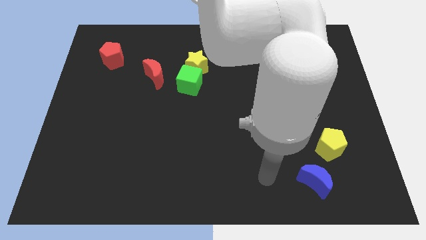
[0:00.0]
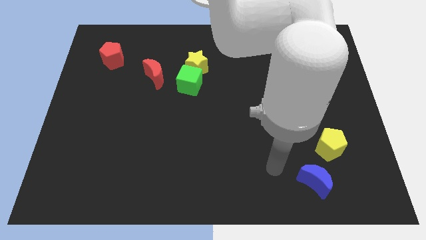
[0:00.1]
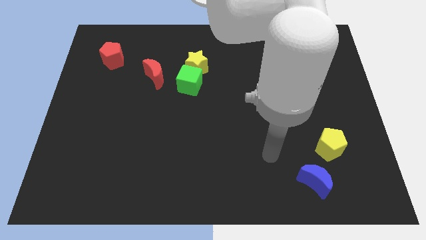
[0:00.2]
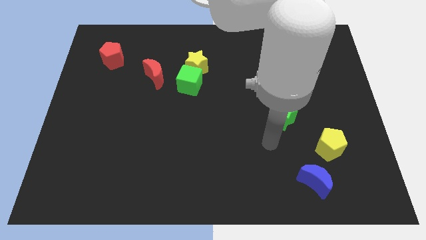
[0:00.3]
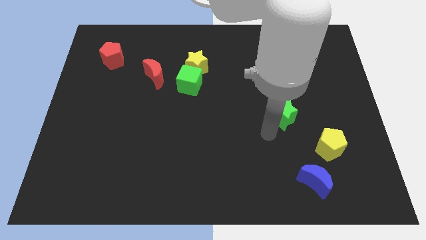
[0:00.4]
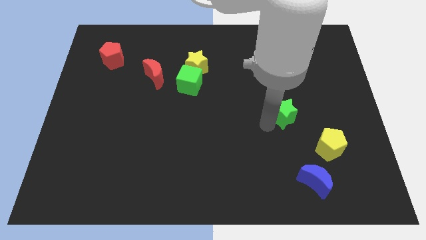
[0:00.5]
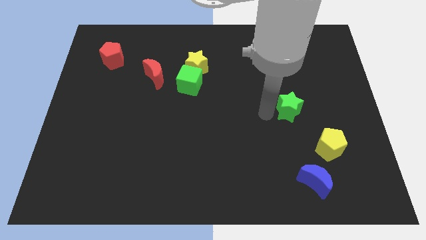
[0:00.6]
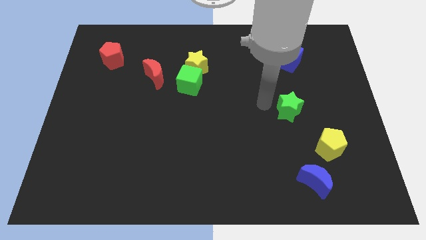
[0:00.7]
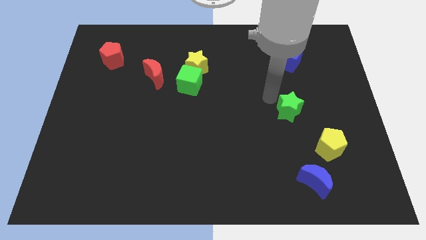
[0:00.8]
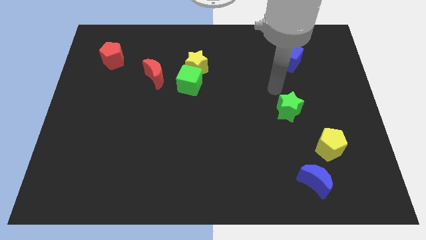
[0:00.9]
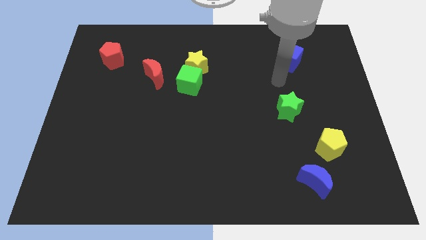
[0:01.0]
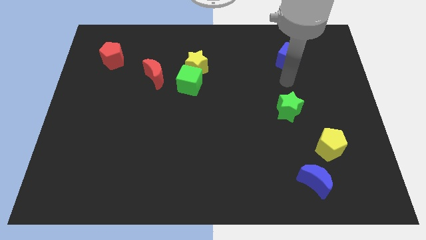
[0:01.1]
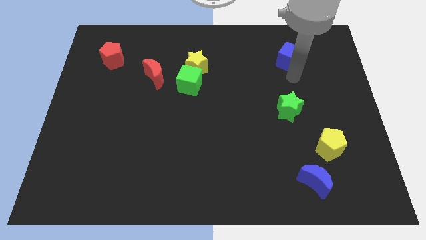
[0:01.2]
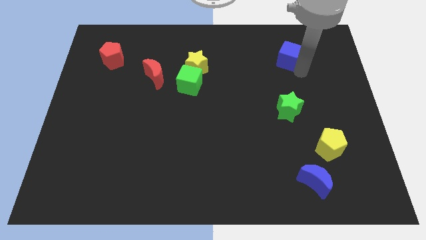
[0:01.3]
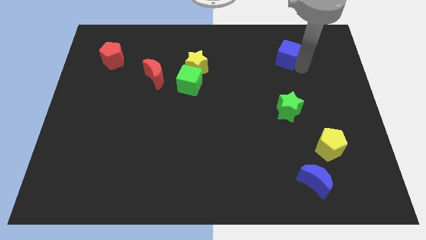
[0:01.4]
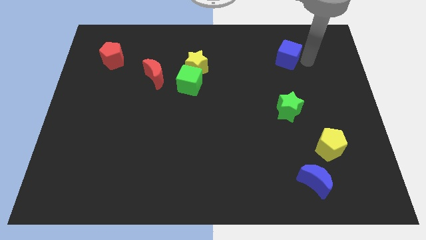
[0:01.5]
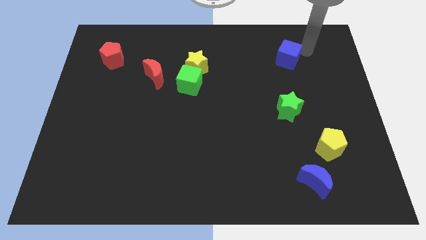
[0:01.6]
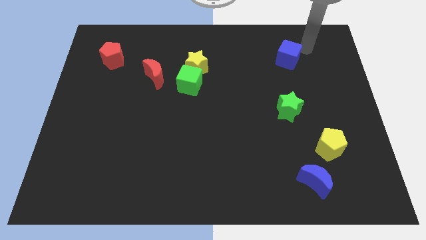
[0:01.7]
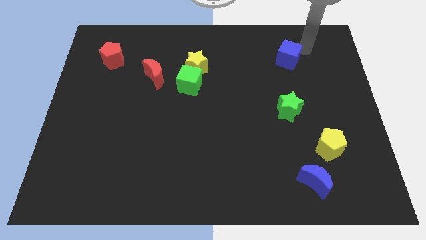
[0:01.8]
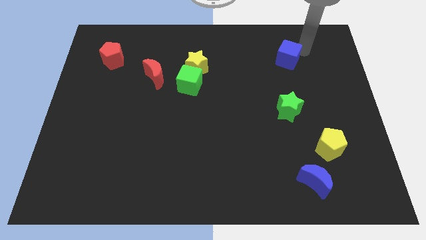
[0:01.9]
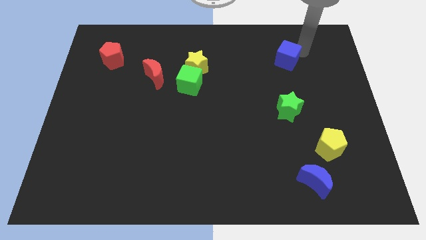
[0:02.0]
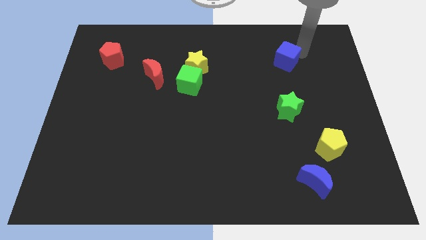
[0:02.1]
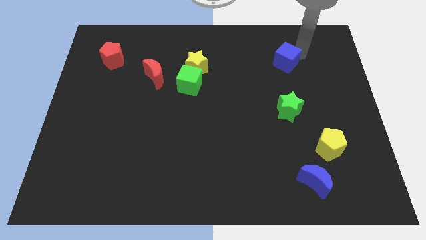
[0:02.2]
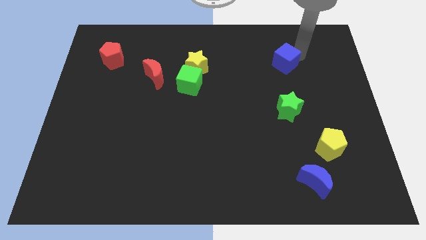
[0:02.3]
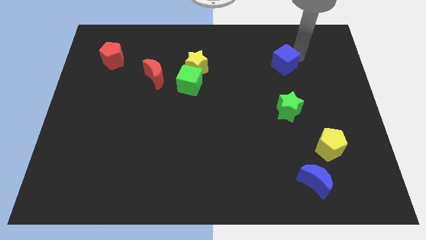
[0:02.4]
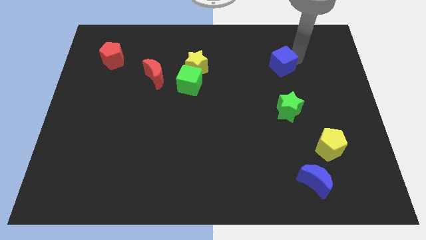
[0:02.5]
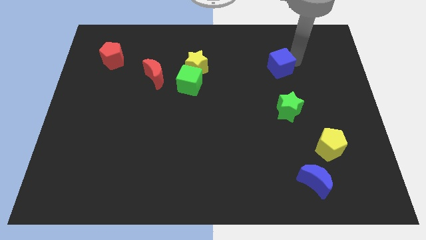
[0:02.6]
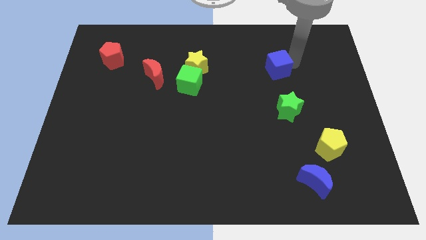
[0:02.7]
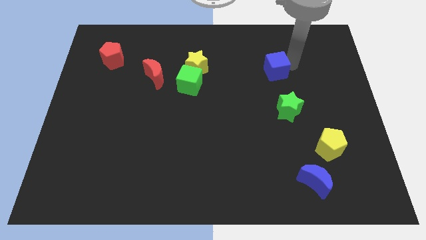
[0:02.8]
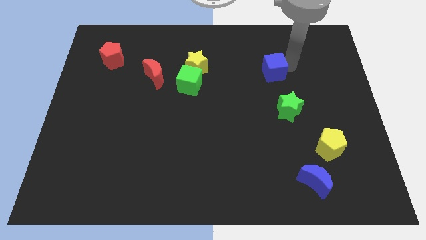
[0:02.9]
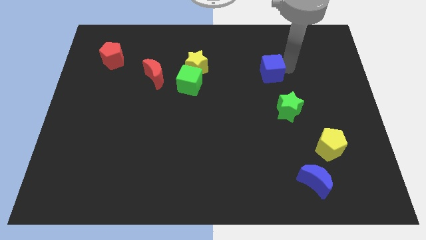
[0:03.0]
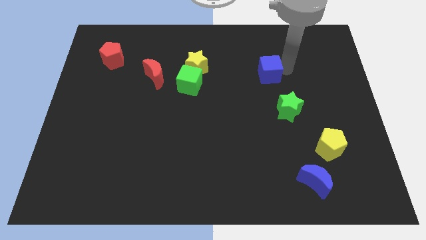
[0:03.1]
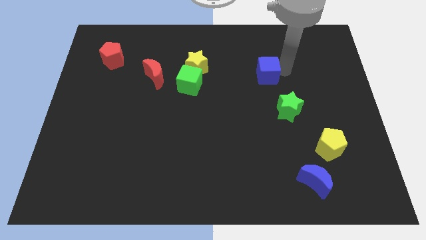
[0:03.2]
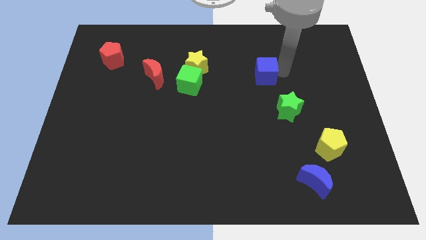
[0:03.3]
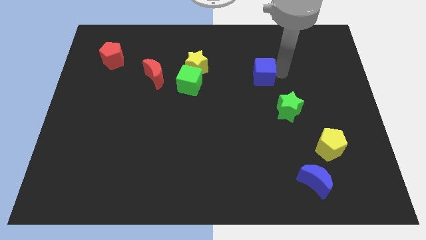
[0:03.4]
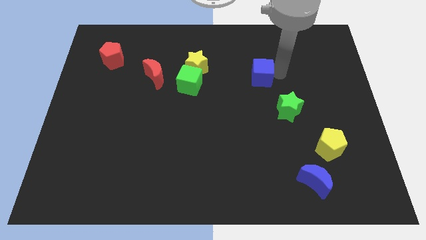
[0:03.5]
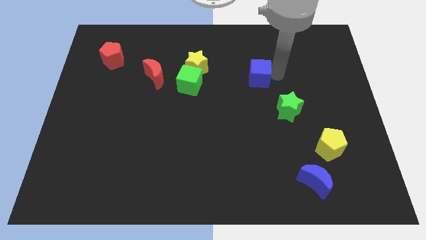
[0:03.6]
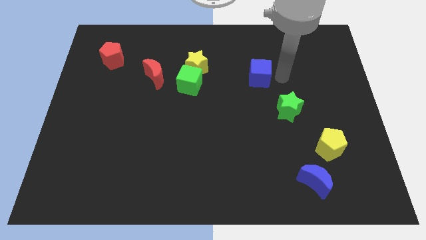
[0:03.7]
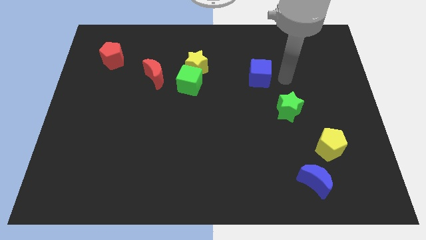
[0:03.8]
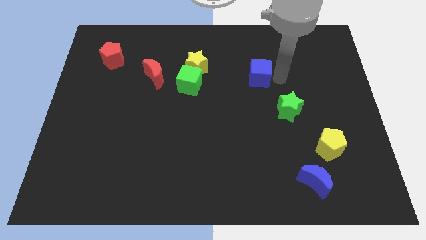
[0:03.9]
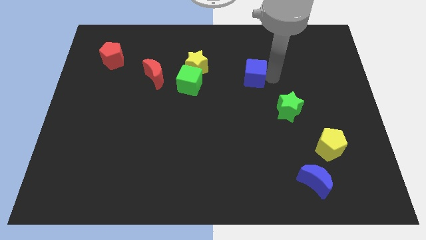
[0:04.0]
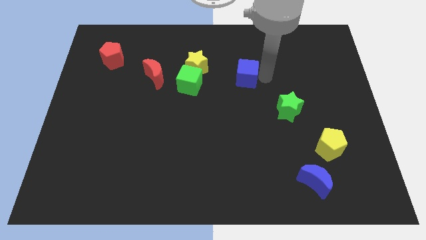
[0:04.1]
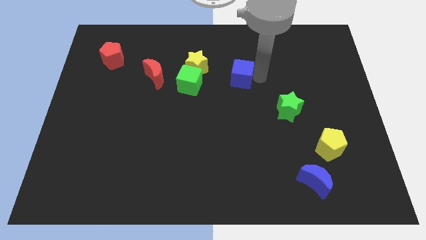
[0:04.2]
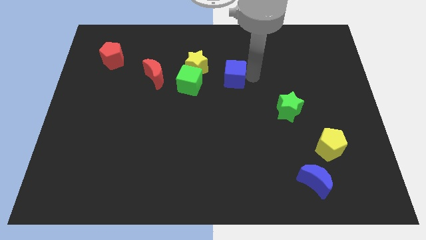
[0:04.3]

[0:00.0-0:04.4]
move the blue cube diagonally down and to the right of the yellow star

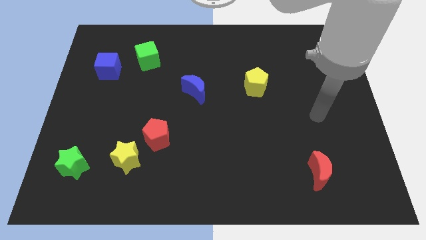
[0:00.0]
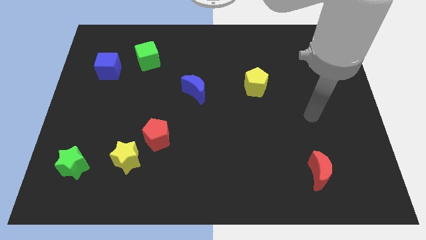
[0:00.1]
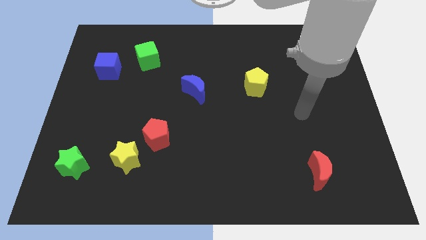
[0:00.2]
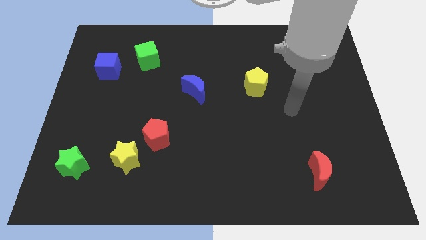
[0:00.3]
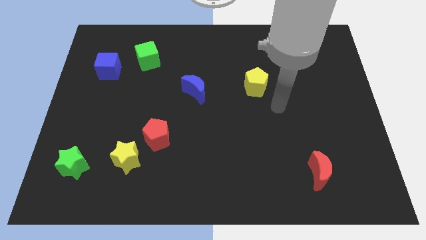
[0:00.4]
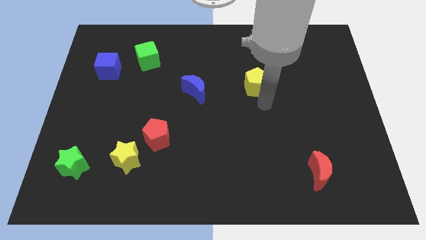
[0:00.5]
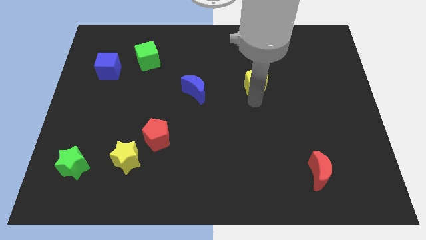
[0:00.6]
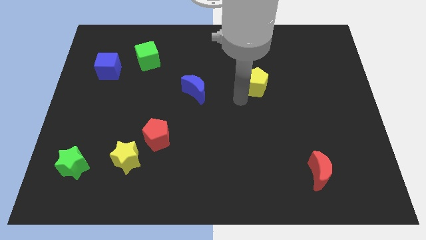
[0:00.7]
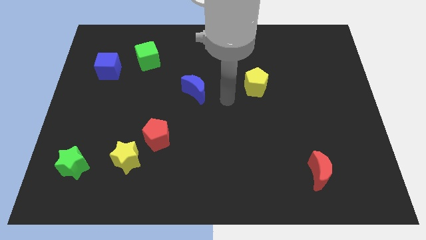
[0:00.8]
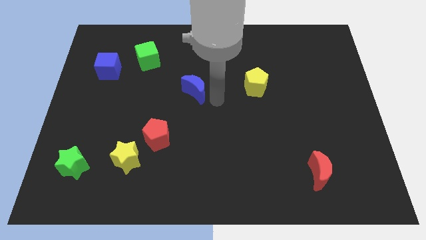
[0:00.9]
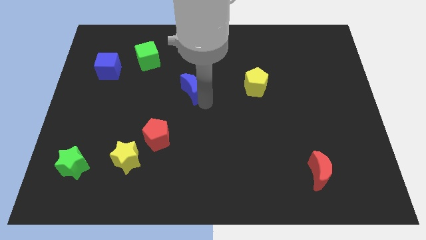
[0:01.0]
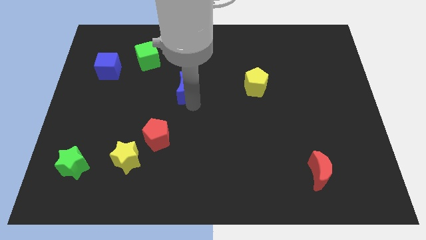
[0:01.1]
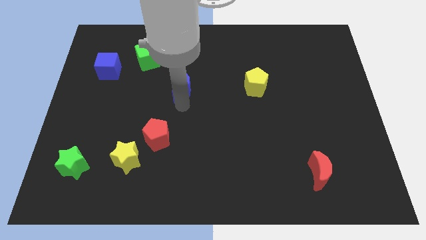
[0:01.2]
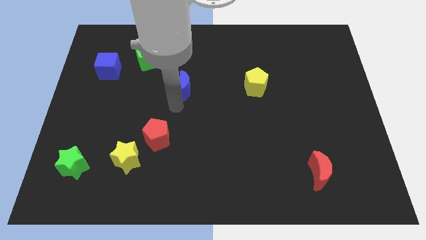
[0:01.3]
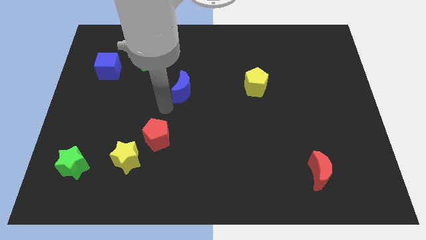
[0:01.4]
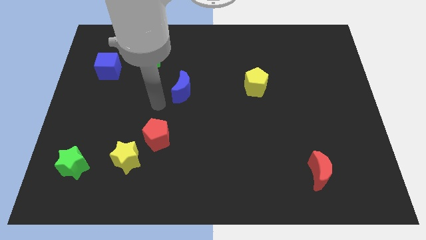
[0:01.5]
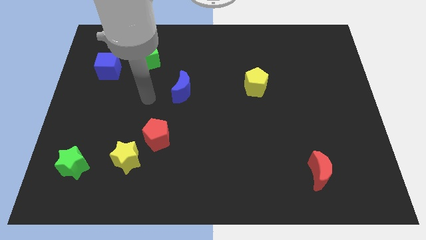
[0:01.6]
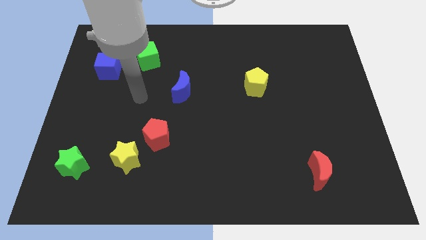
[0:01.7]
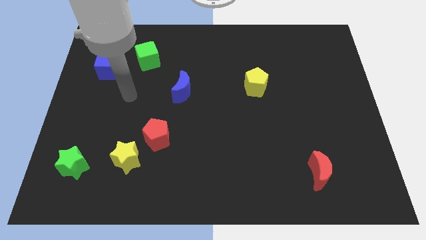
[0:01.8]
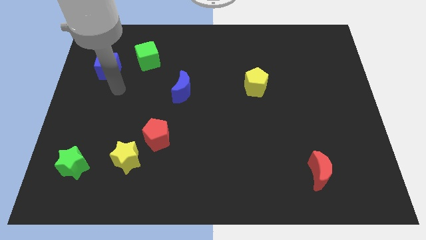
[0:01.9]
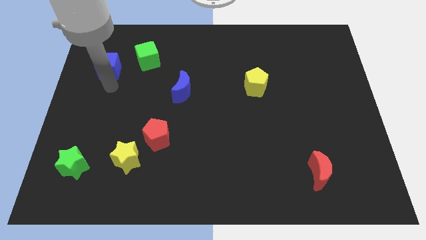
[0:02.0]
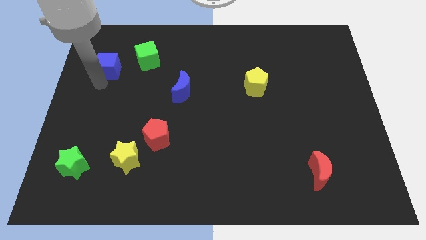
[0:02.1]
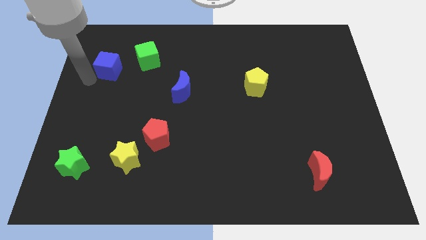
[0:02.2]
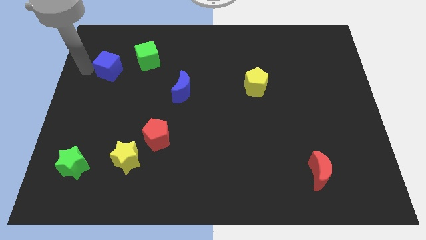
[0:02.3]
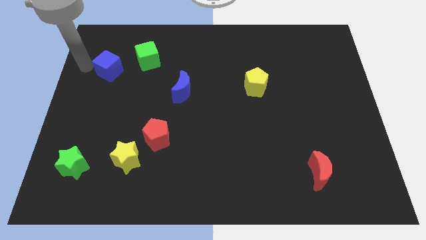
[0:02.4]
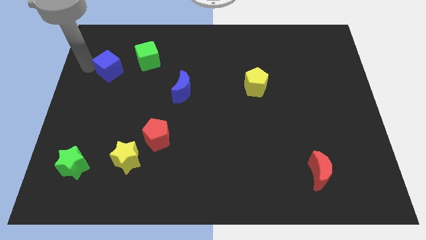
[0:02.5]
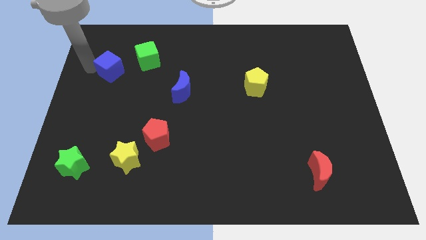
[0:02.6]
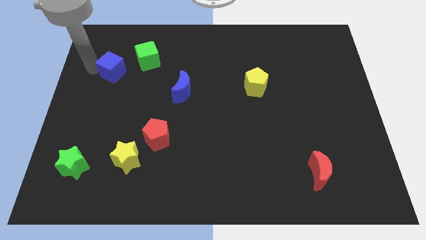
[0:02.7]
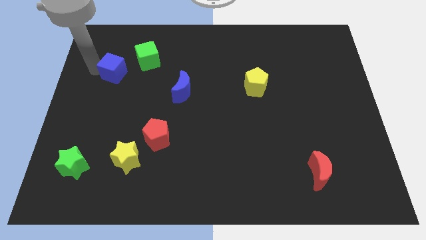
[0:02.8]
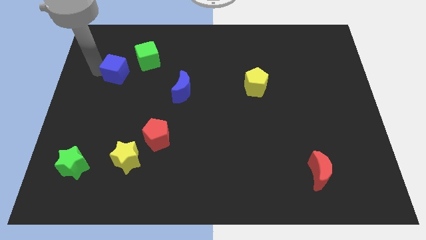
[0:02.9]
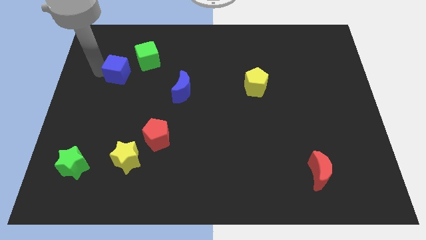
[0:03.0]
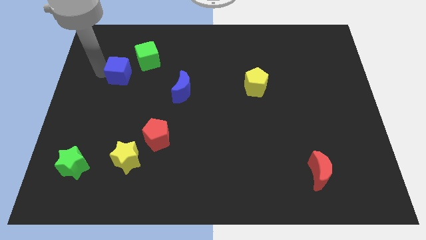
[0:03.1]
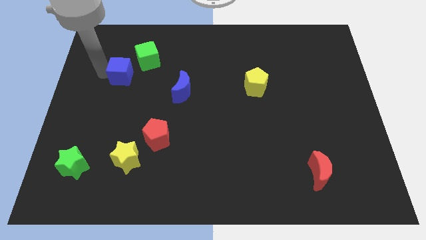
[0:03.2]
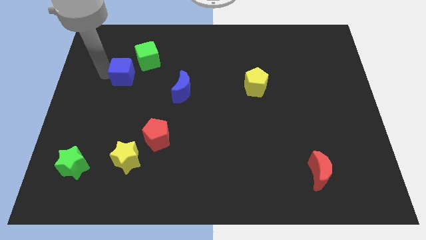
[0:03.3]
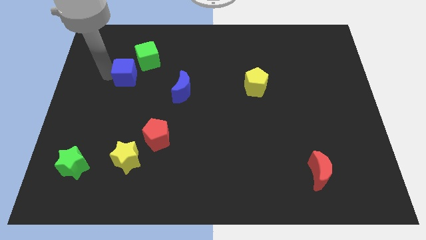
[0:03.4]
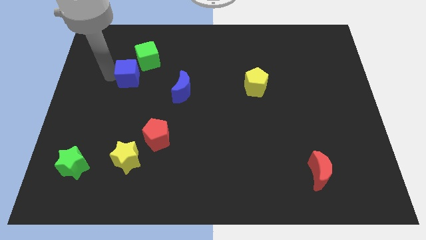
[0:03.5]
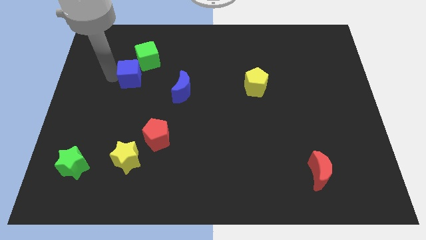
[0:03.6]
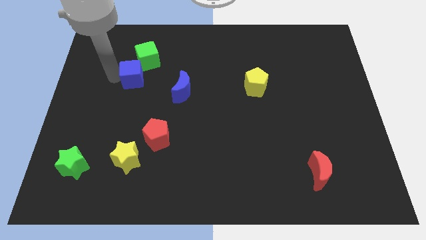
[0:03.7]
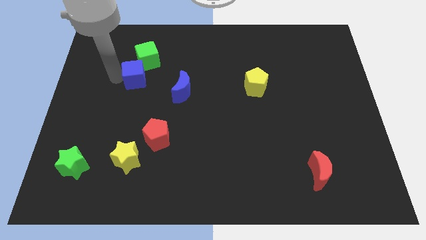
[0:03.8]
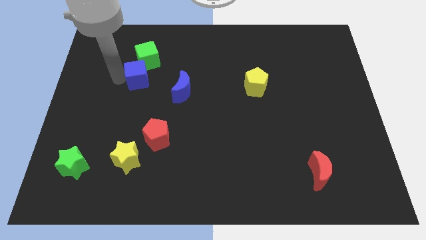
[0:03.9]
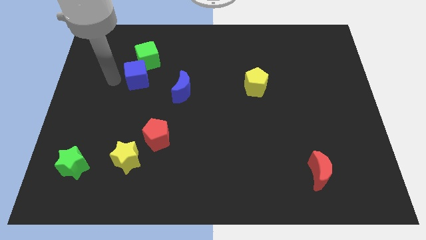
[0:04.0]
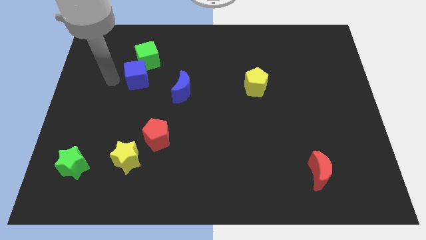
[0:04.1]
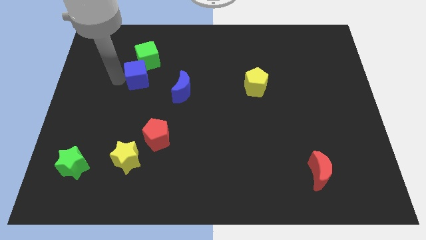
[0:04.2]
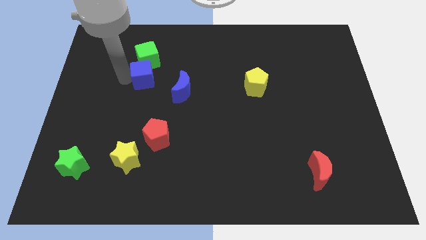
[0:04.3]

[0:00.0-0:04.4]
move the blue cube diagonally up and to the left of the blue moon
